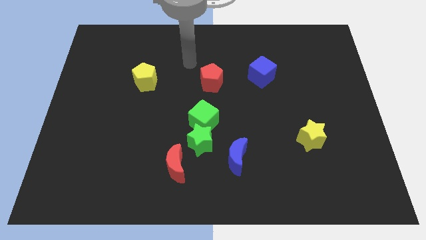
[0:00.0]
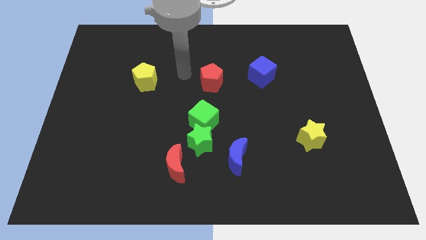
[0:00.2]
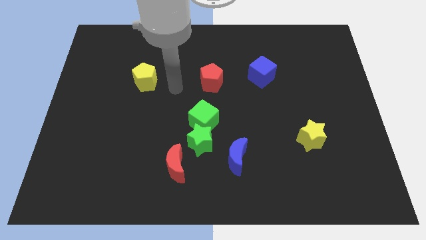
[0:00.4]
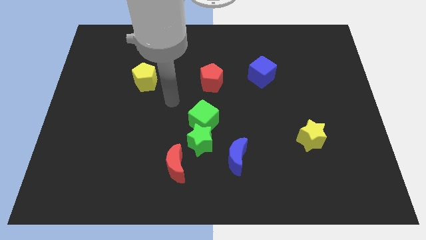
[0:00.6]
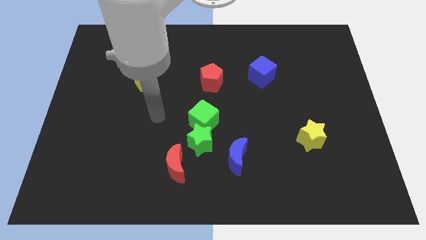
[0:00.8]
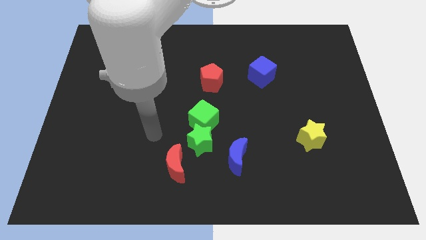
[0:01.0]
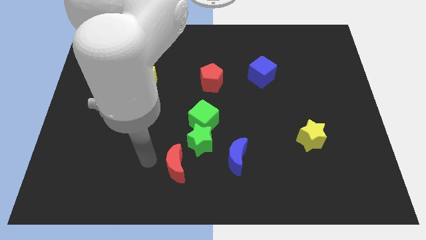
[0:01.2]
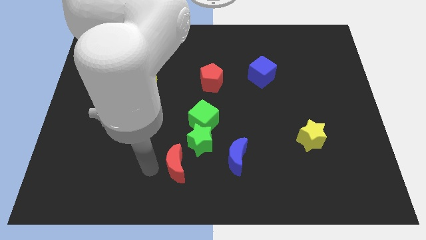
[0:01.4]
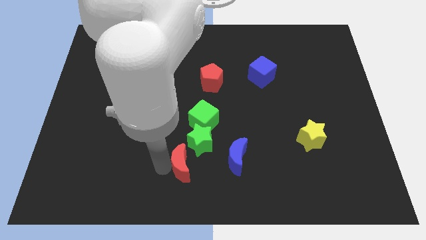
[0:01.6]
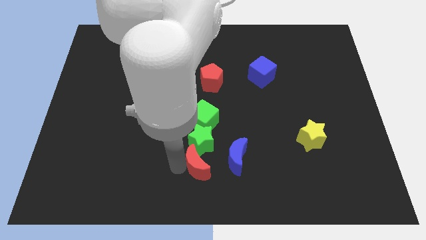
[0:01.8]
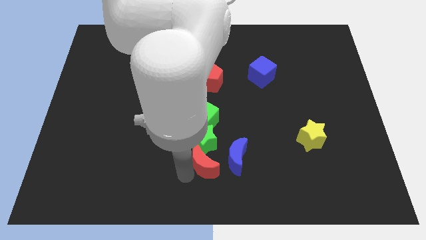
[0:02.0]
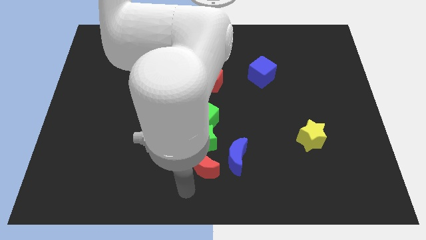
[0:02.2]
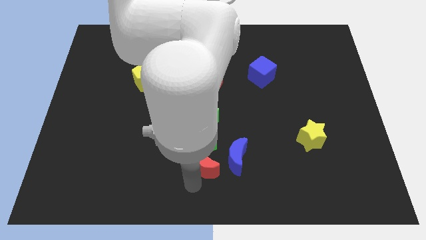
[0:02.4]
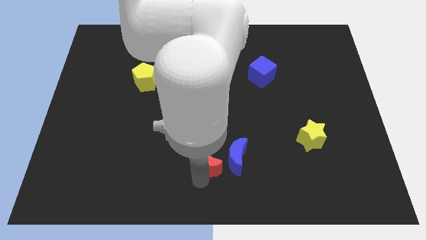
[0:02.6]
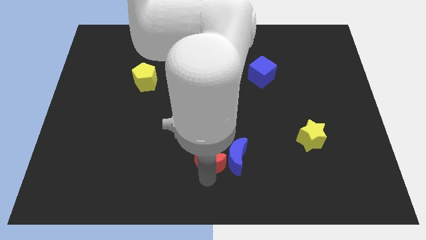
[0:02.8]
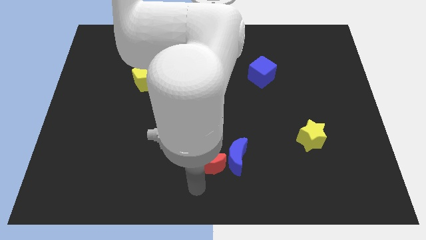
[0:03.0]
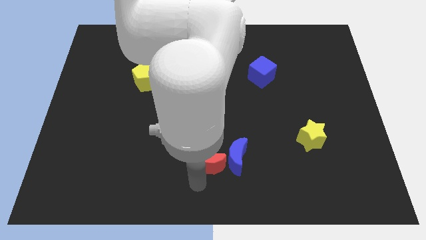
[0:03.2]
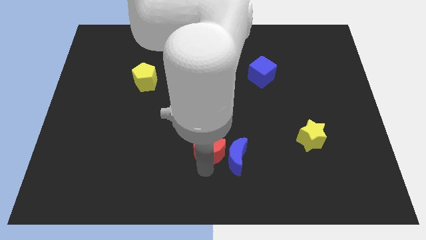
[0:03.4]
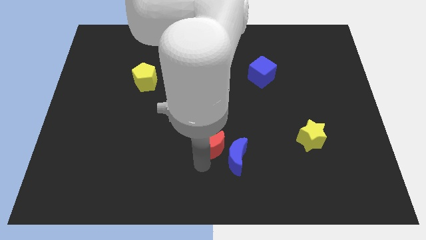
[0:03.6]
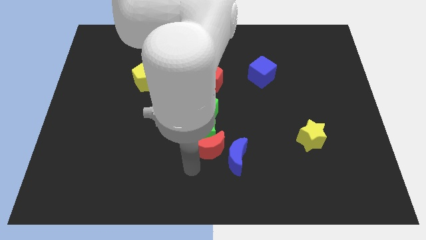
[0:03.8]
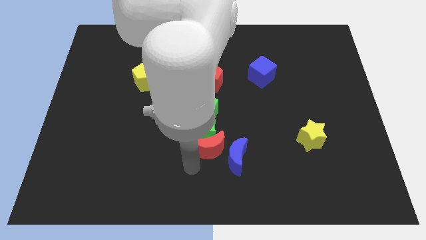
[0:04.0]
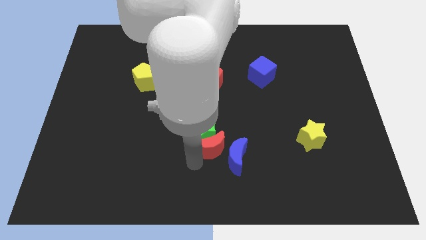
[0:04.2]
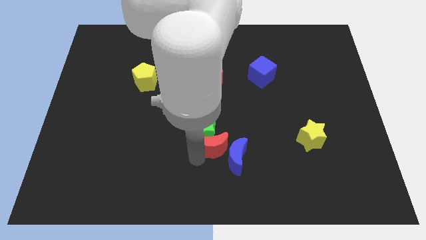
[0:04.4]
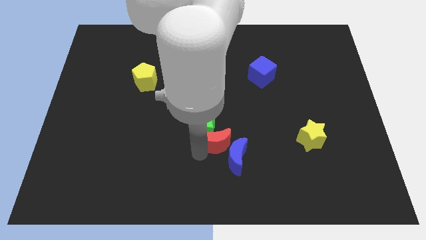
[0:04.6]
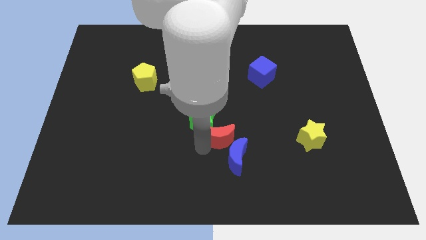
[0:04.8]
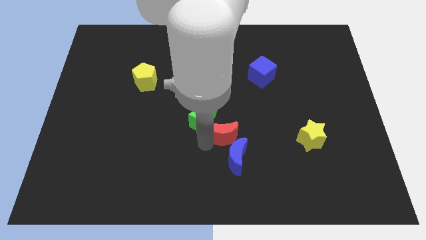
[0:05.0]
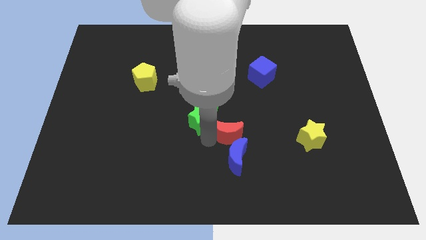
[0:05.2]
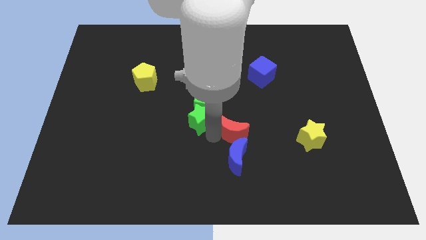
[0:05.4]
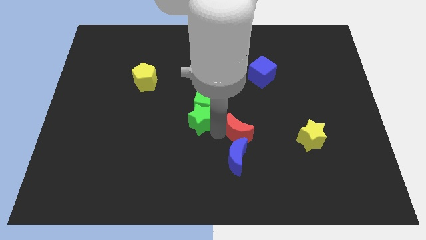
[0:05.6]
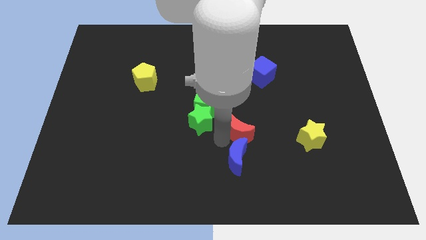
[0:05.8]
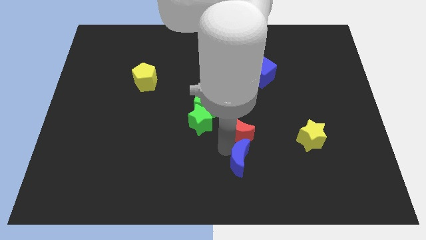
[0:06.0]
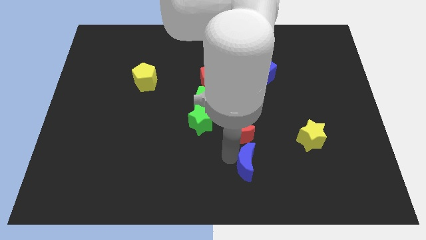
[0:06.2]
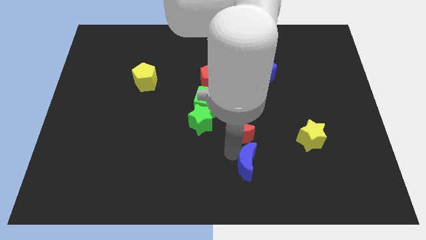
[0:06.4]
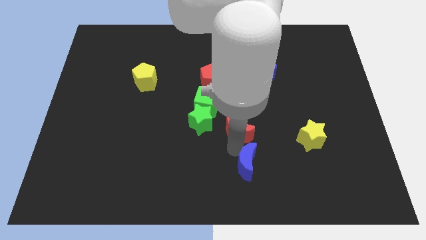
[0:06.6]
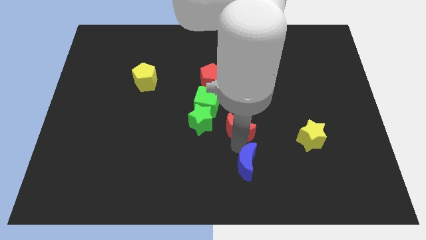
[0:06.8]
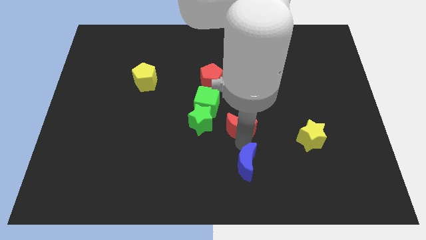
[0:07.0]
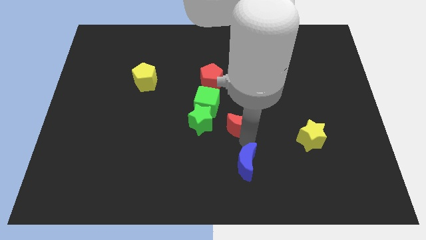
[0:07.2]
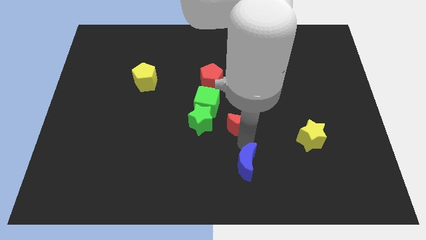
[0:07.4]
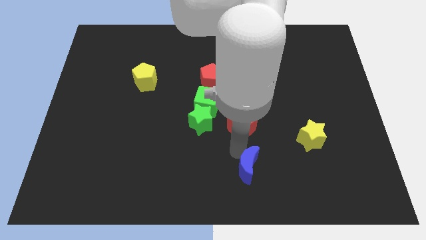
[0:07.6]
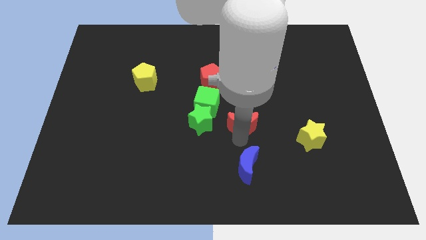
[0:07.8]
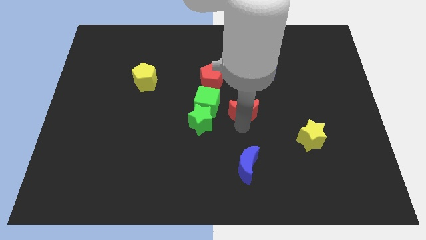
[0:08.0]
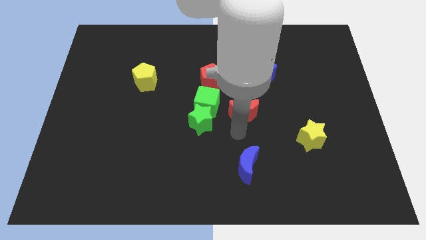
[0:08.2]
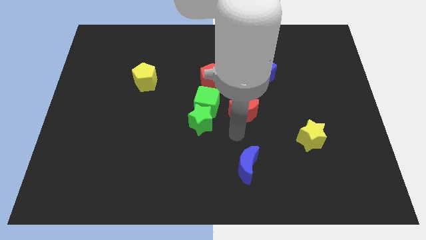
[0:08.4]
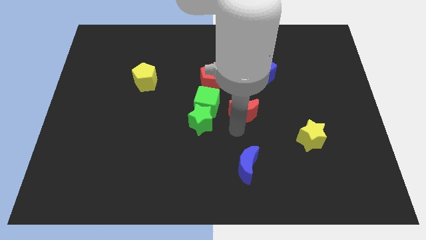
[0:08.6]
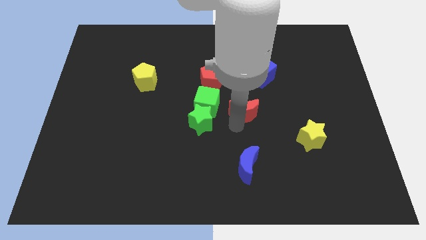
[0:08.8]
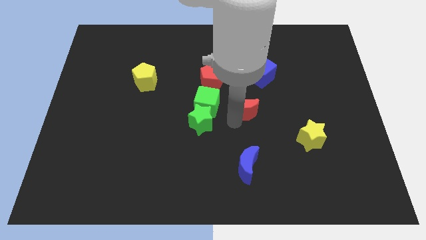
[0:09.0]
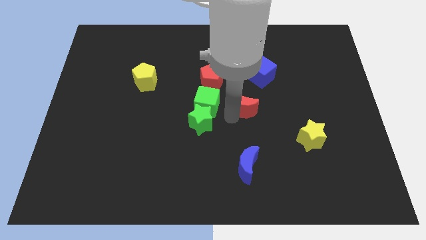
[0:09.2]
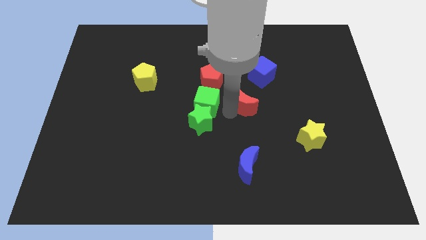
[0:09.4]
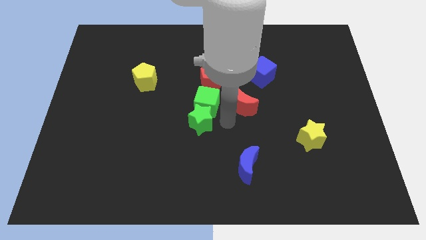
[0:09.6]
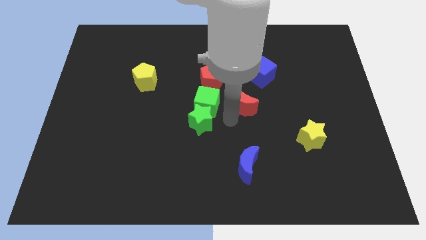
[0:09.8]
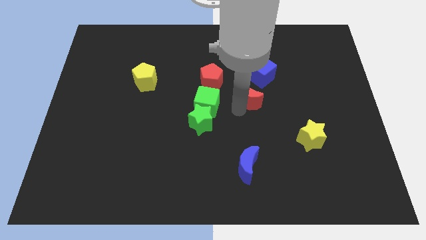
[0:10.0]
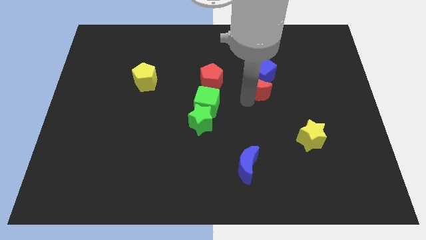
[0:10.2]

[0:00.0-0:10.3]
slide the red moon next to the blue cube

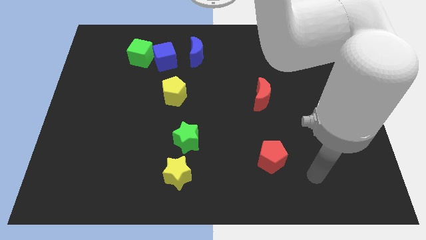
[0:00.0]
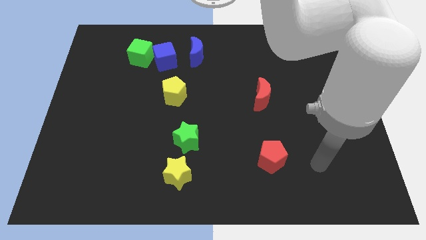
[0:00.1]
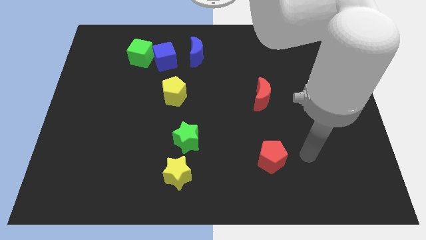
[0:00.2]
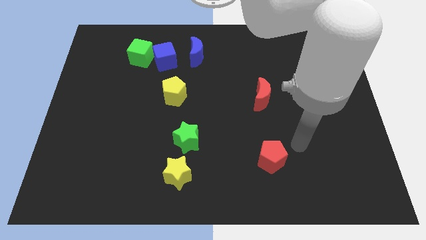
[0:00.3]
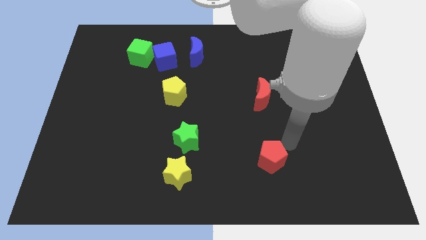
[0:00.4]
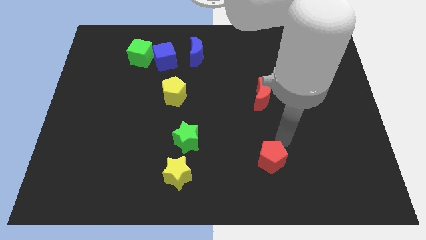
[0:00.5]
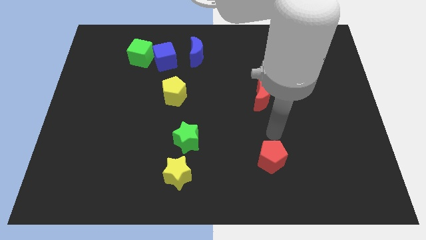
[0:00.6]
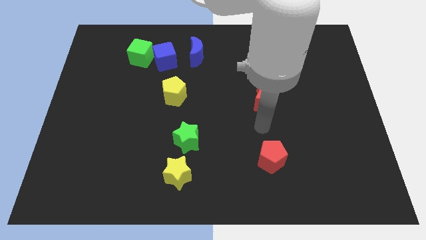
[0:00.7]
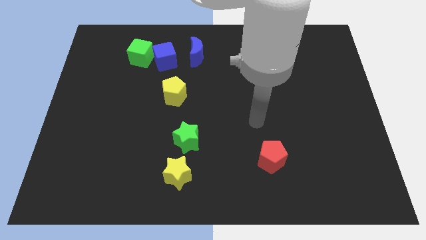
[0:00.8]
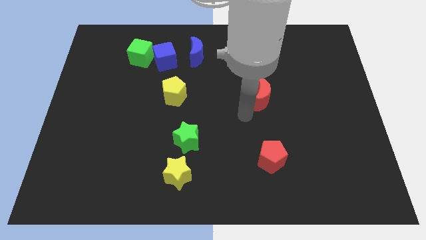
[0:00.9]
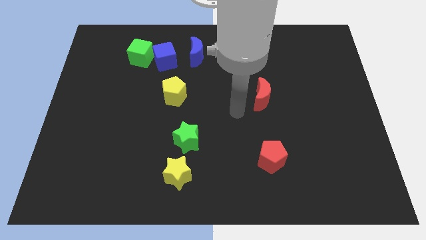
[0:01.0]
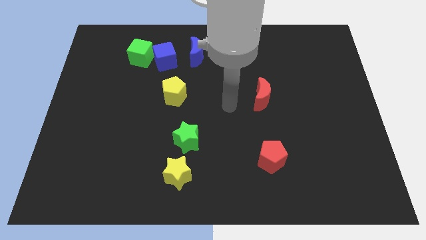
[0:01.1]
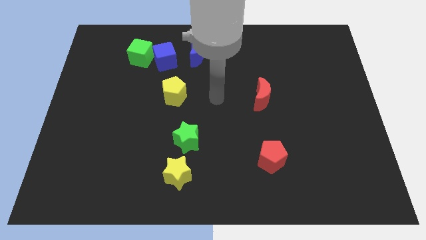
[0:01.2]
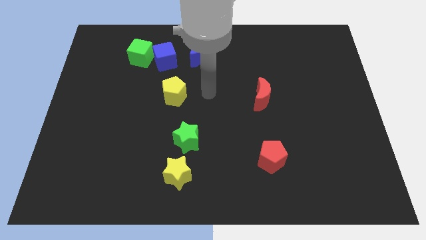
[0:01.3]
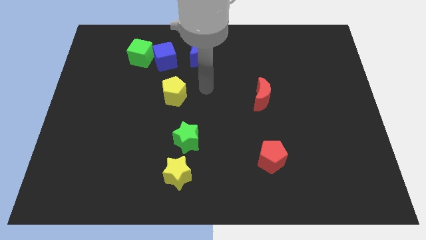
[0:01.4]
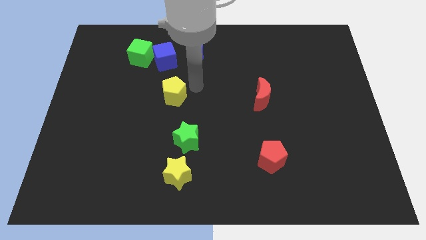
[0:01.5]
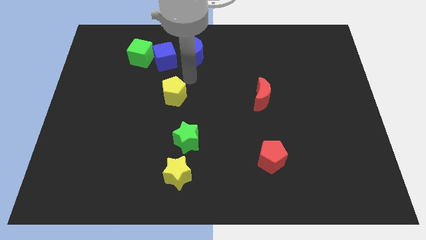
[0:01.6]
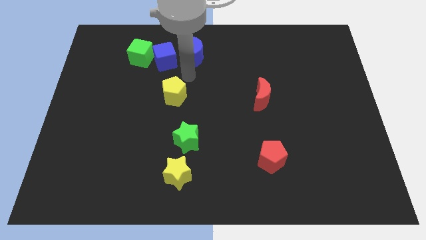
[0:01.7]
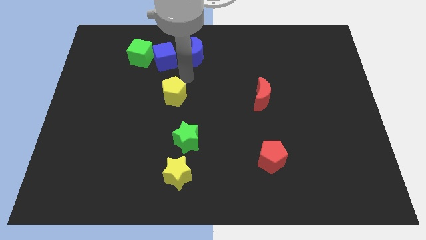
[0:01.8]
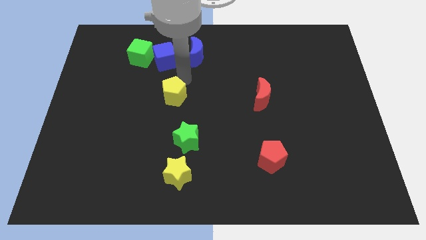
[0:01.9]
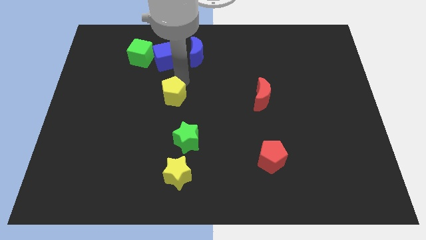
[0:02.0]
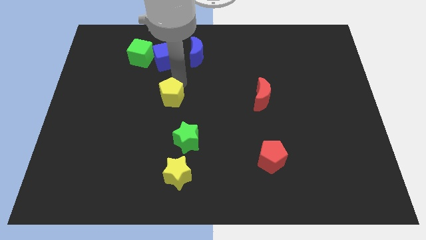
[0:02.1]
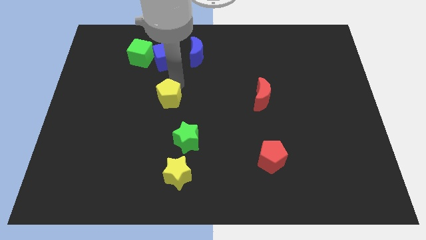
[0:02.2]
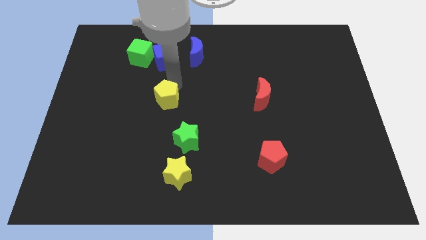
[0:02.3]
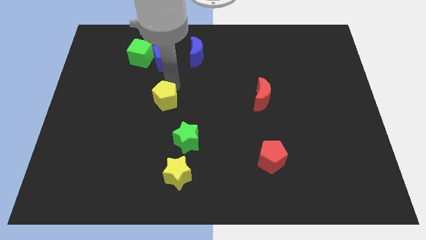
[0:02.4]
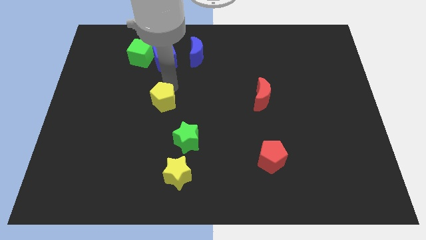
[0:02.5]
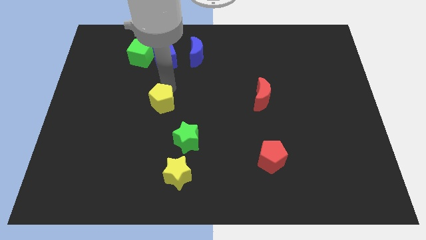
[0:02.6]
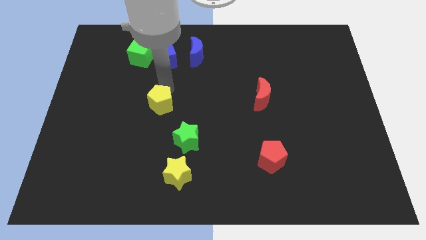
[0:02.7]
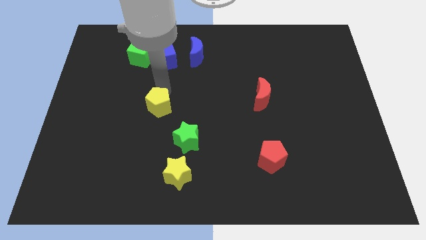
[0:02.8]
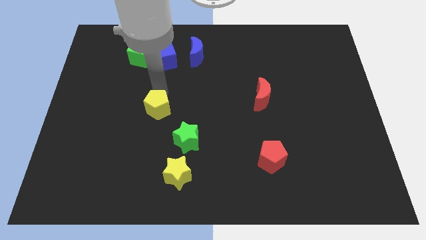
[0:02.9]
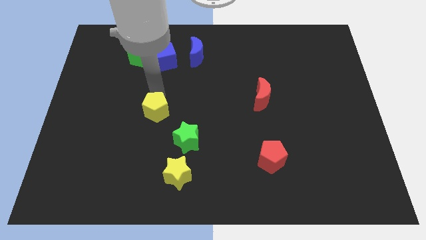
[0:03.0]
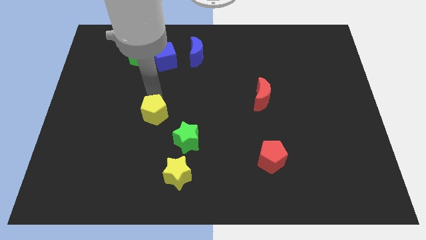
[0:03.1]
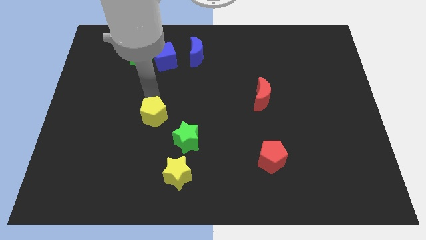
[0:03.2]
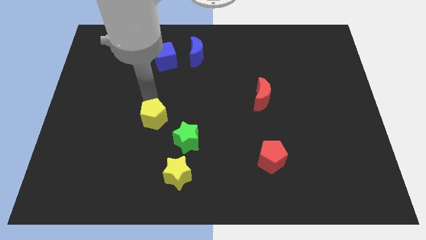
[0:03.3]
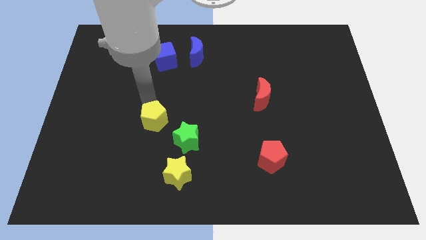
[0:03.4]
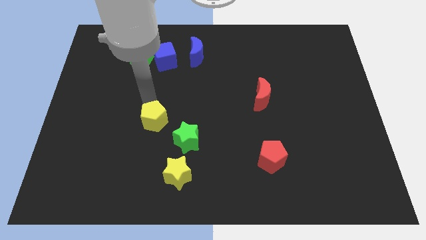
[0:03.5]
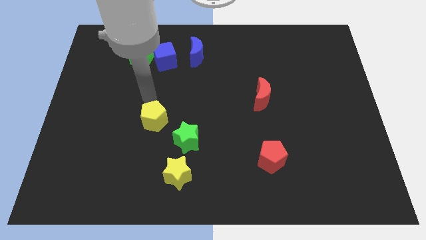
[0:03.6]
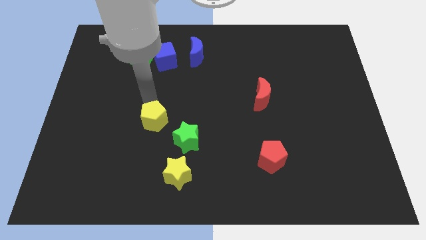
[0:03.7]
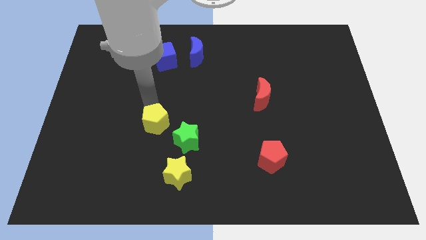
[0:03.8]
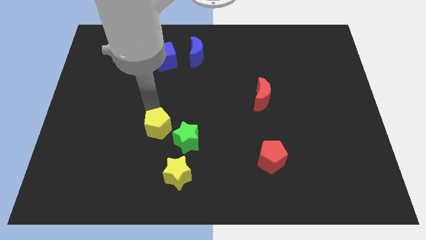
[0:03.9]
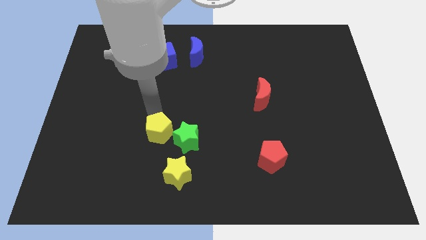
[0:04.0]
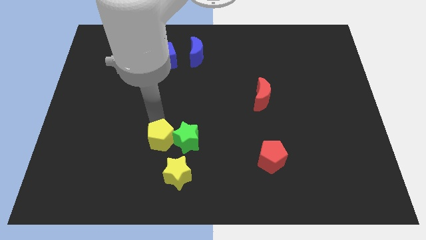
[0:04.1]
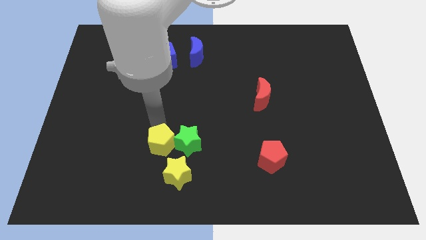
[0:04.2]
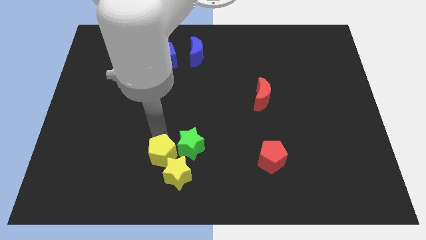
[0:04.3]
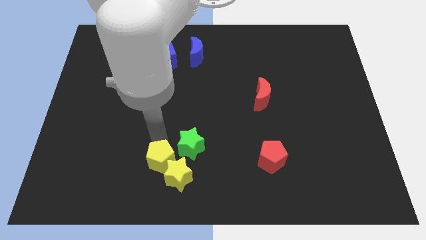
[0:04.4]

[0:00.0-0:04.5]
move the yellow pentagon towards the yellow star
